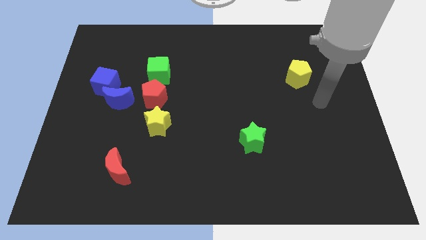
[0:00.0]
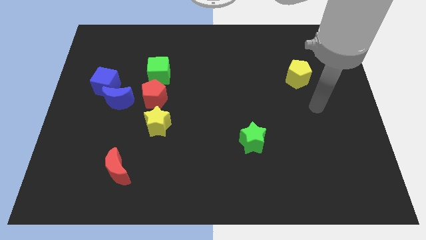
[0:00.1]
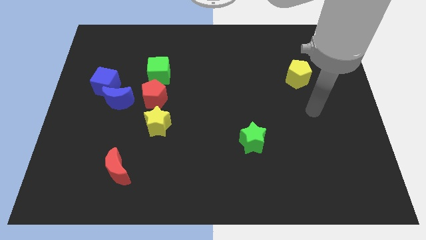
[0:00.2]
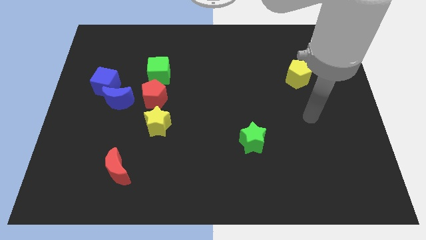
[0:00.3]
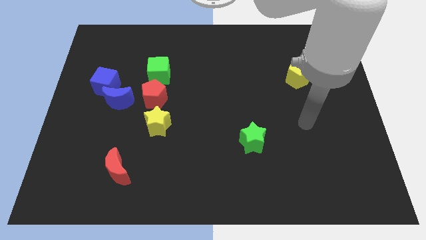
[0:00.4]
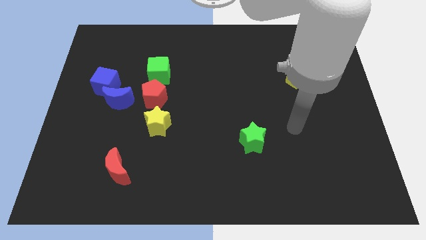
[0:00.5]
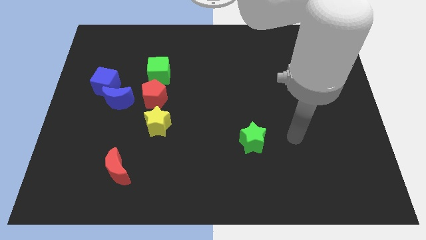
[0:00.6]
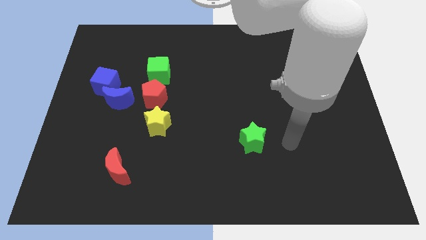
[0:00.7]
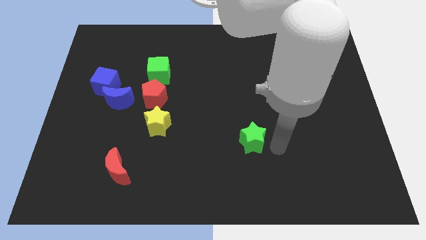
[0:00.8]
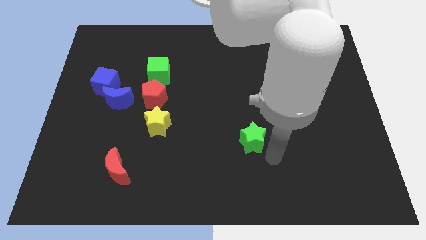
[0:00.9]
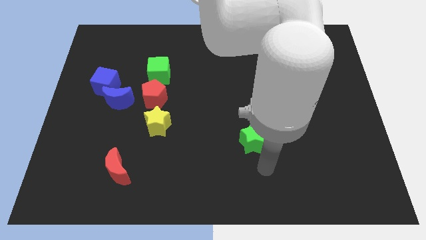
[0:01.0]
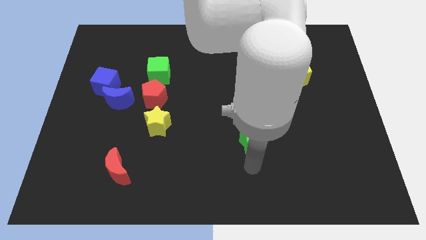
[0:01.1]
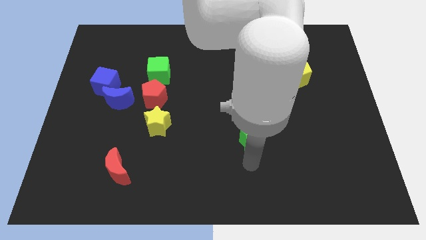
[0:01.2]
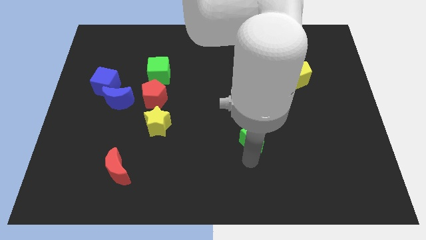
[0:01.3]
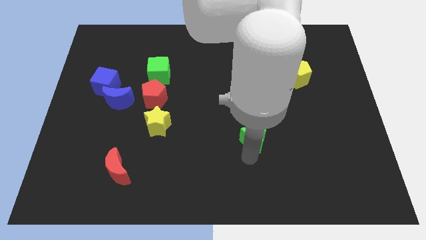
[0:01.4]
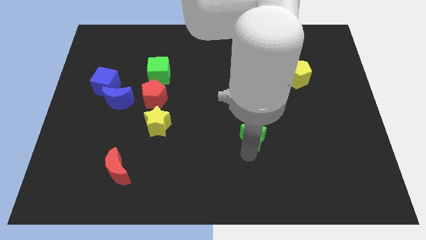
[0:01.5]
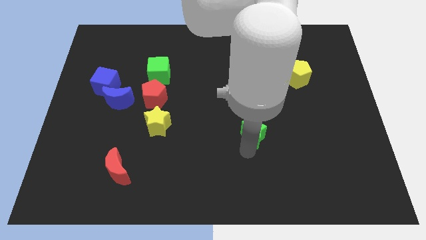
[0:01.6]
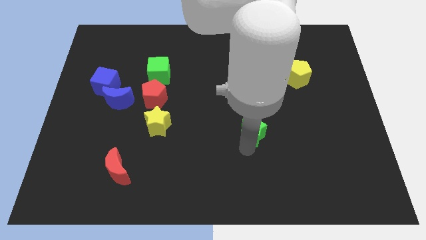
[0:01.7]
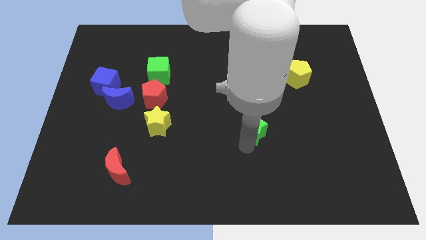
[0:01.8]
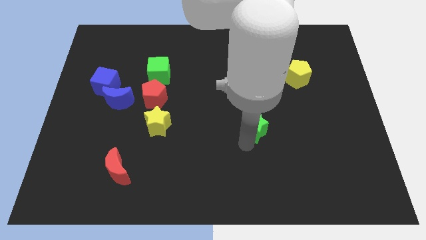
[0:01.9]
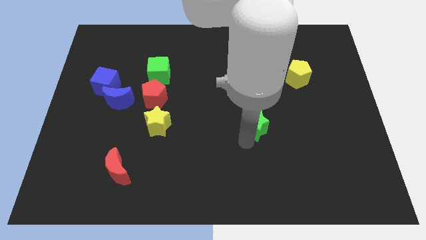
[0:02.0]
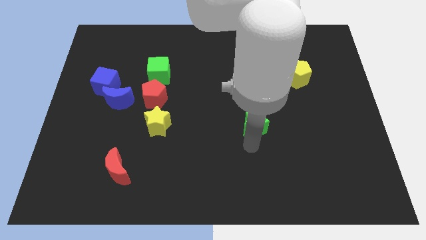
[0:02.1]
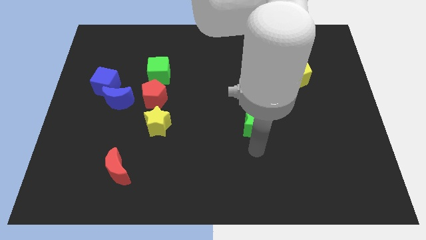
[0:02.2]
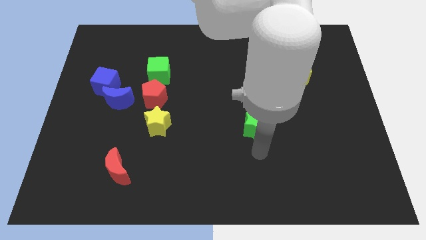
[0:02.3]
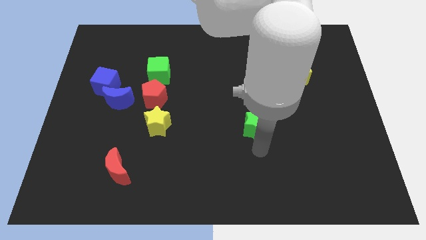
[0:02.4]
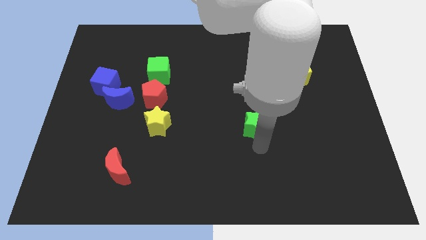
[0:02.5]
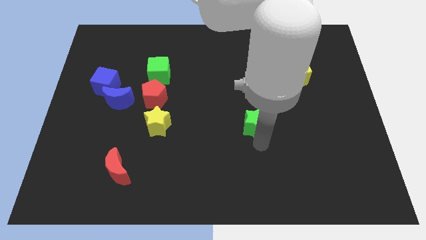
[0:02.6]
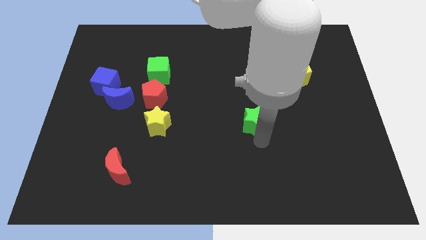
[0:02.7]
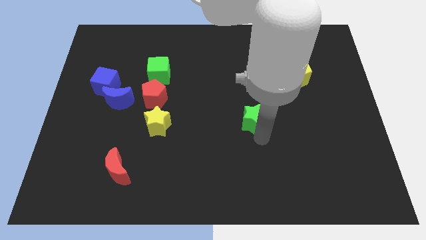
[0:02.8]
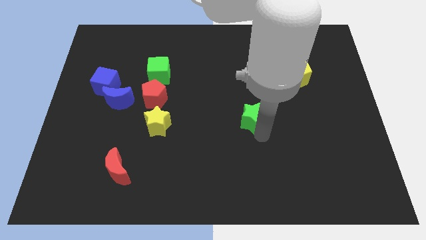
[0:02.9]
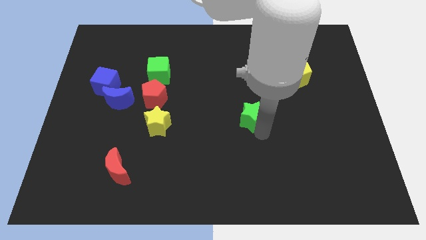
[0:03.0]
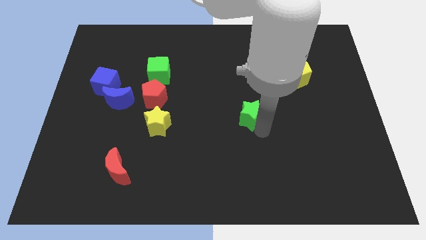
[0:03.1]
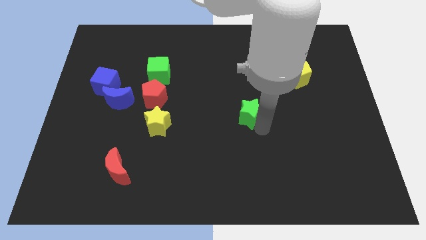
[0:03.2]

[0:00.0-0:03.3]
slightly move the green star up

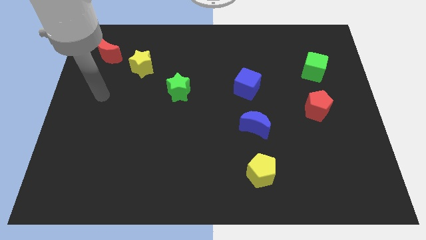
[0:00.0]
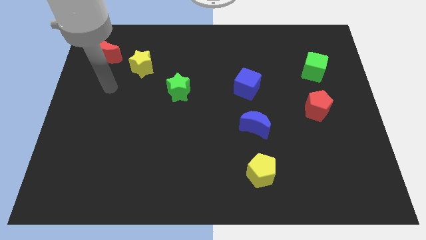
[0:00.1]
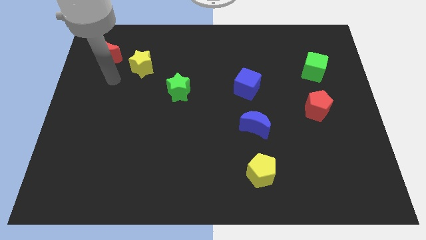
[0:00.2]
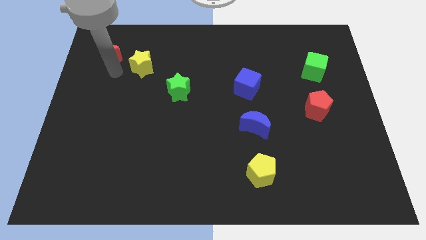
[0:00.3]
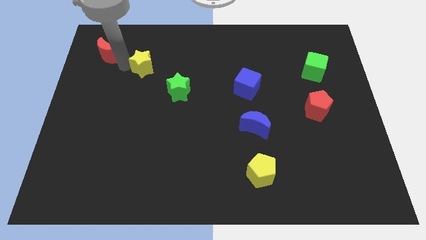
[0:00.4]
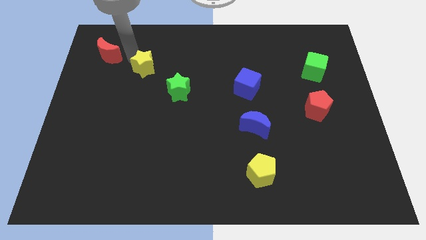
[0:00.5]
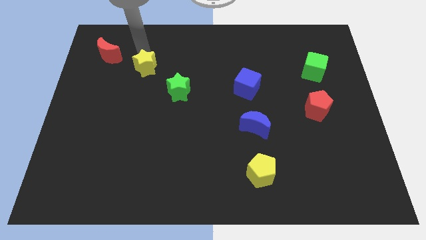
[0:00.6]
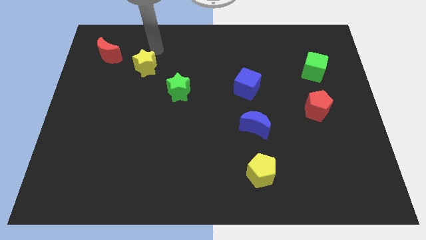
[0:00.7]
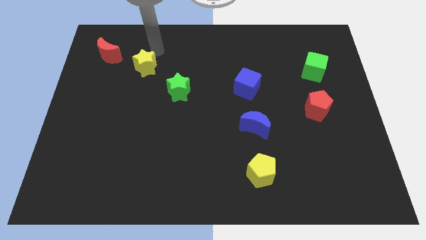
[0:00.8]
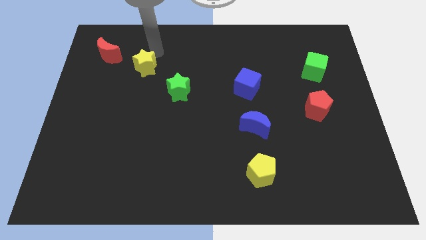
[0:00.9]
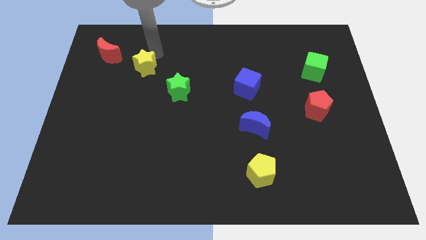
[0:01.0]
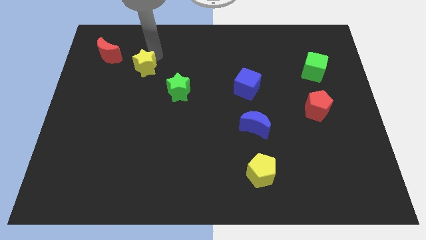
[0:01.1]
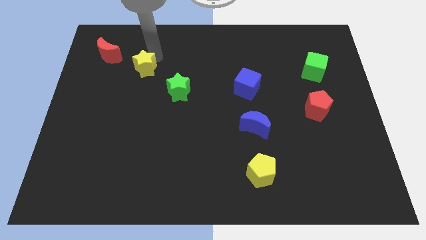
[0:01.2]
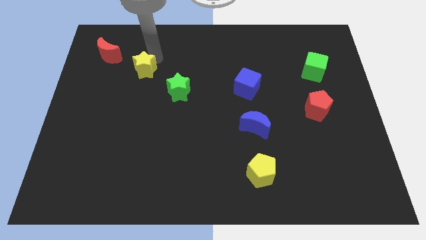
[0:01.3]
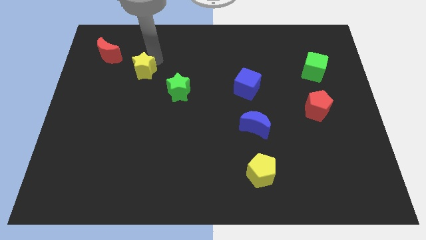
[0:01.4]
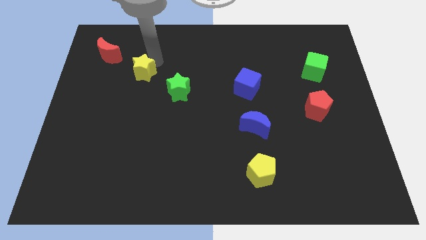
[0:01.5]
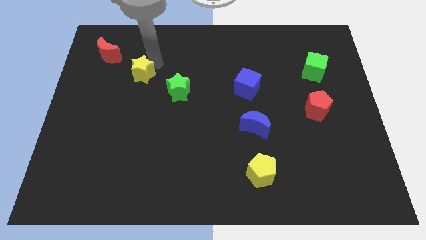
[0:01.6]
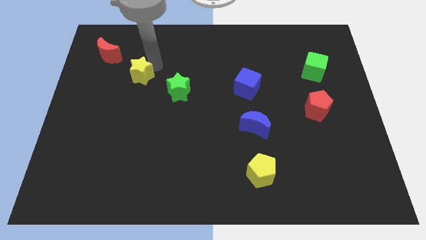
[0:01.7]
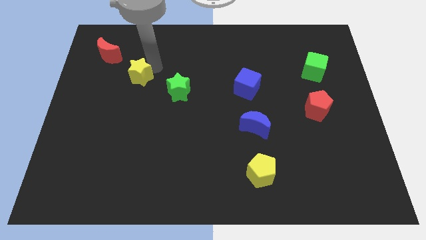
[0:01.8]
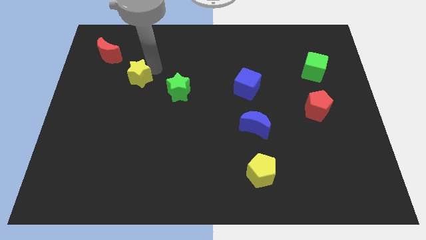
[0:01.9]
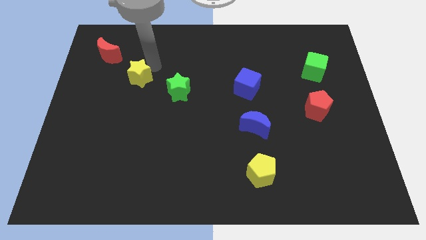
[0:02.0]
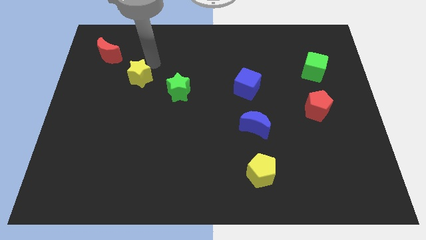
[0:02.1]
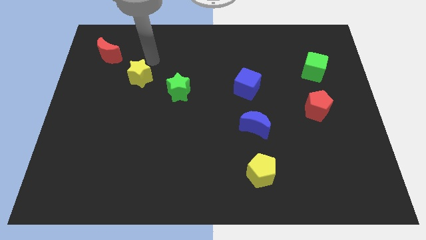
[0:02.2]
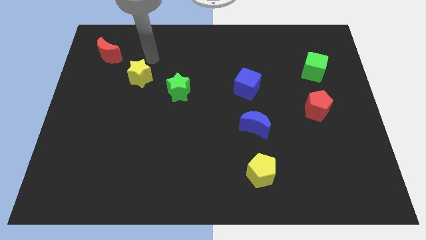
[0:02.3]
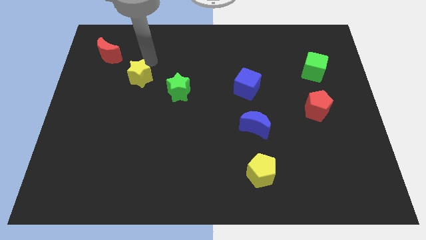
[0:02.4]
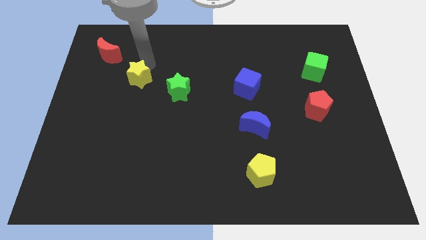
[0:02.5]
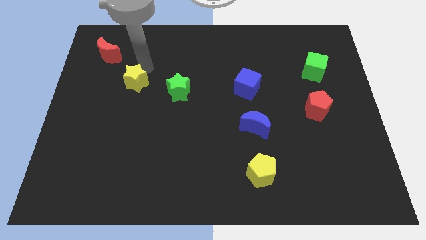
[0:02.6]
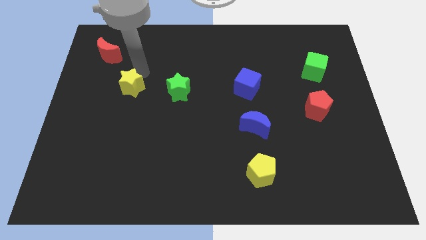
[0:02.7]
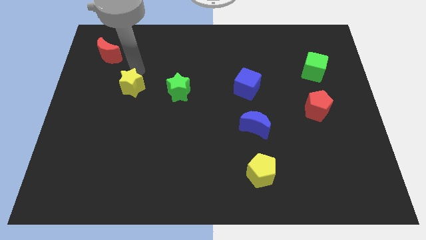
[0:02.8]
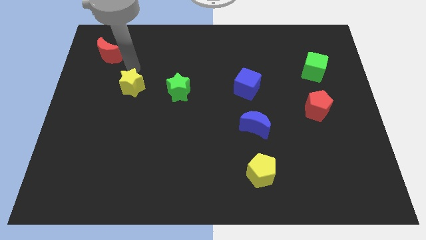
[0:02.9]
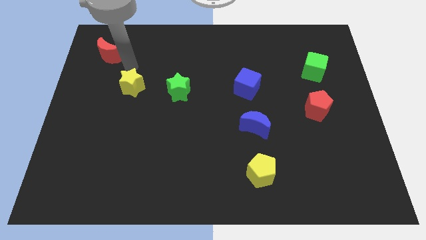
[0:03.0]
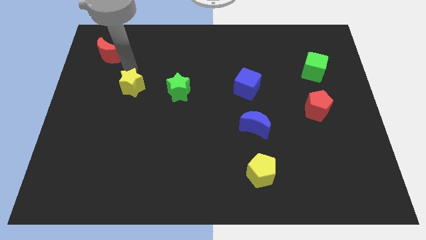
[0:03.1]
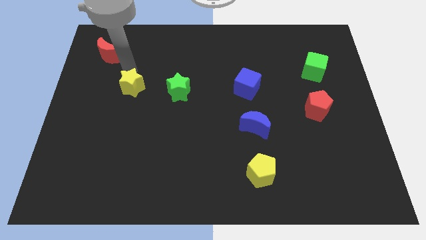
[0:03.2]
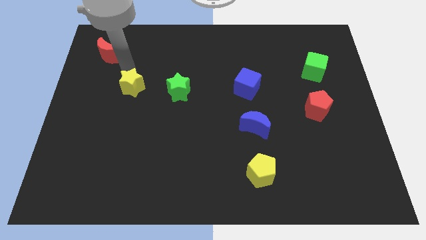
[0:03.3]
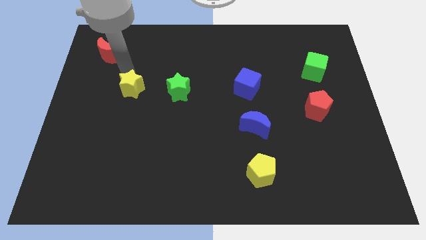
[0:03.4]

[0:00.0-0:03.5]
slide the yellow star somewhat downwards

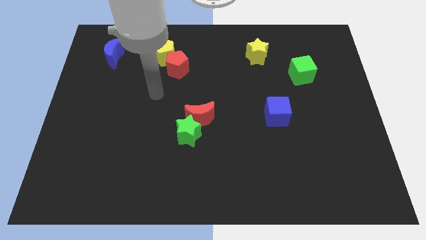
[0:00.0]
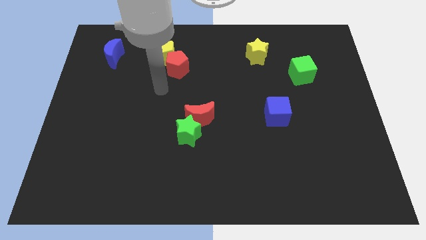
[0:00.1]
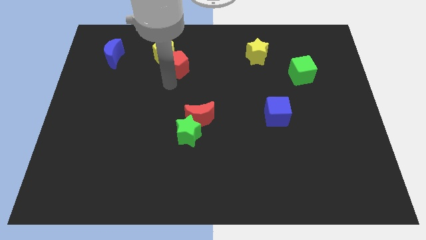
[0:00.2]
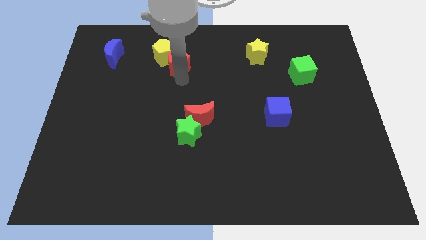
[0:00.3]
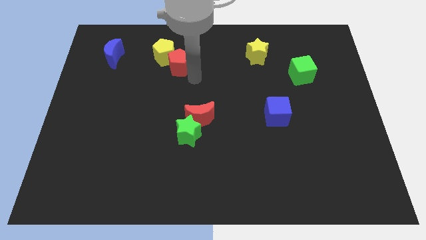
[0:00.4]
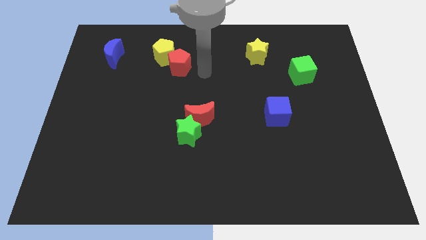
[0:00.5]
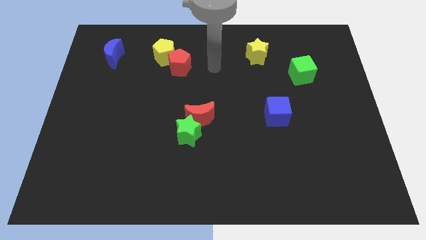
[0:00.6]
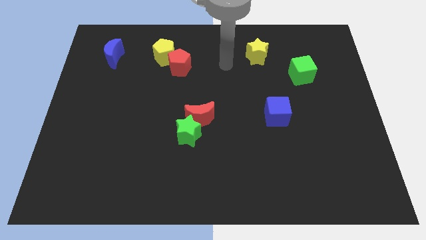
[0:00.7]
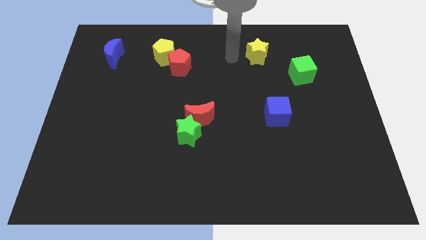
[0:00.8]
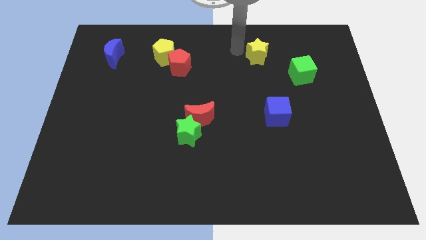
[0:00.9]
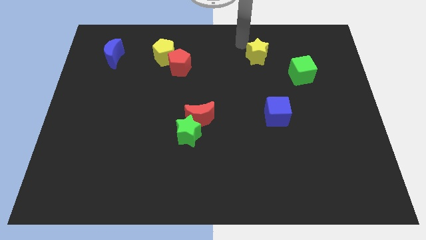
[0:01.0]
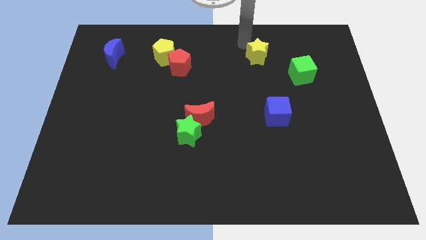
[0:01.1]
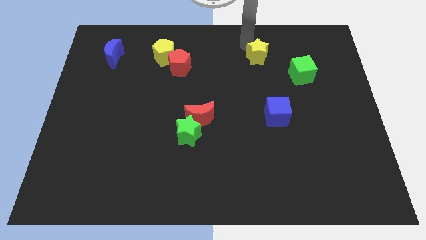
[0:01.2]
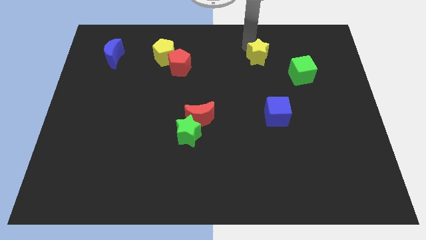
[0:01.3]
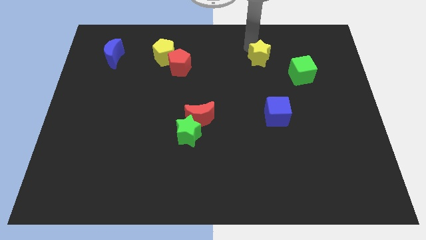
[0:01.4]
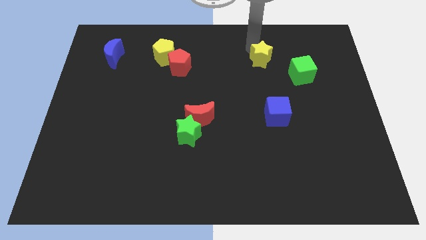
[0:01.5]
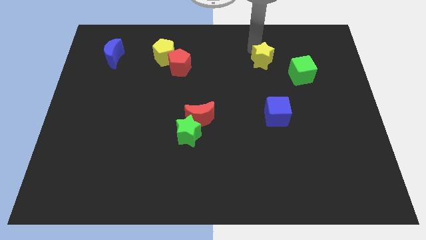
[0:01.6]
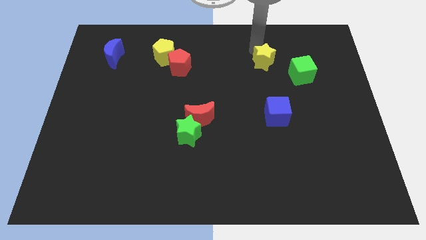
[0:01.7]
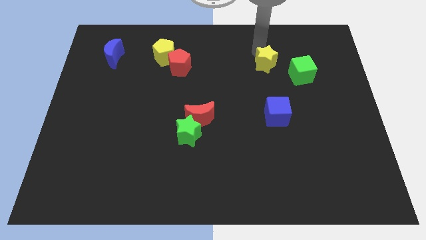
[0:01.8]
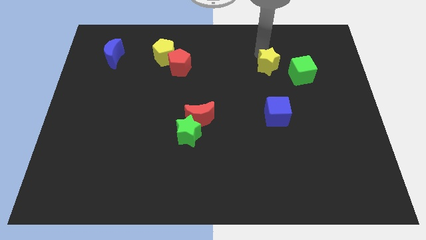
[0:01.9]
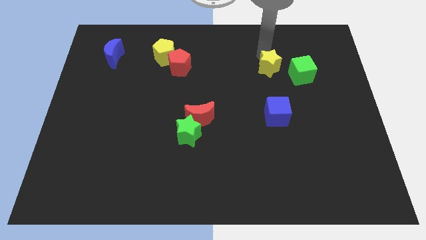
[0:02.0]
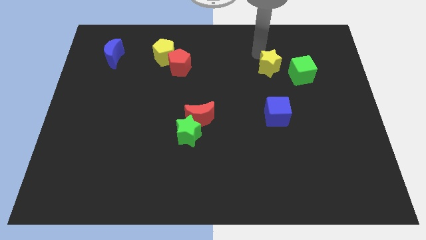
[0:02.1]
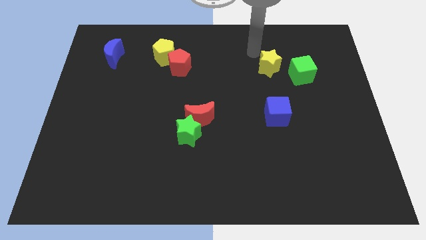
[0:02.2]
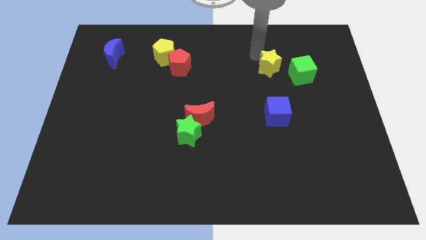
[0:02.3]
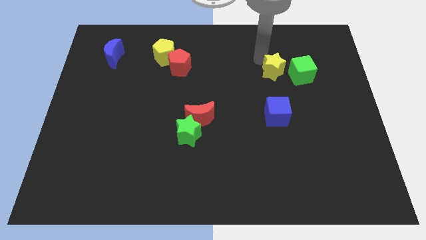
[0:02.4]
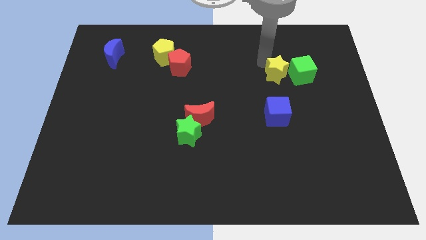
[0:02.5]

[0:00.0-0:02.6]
push the yellow star down and to the right a bit
